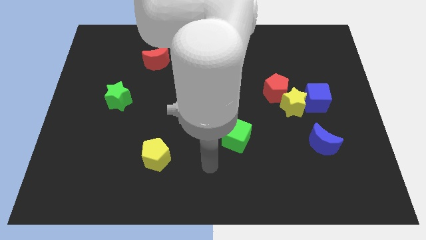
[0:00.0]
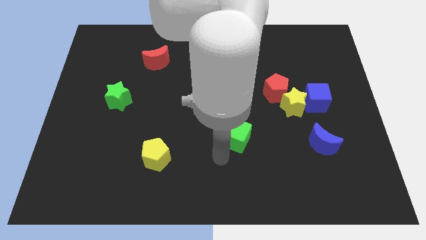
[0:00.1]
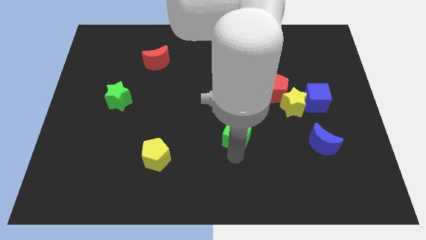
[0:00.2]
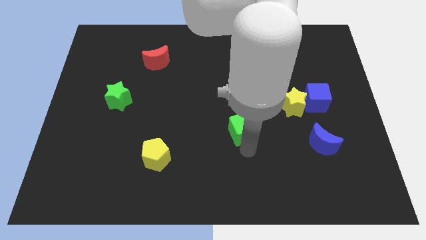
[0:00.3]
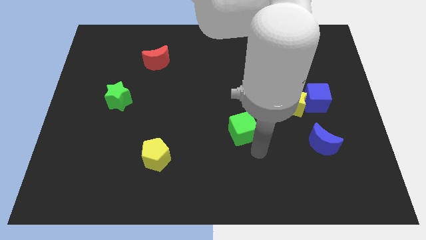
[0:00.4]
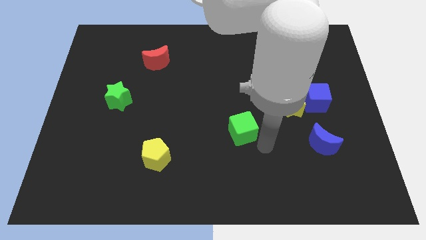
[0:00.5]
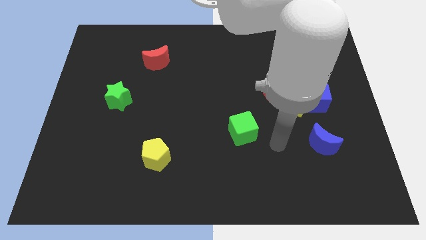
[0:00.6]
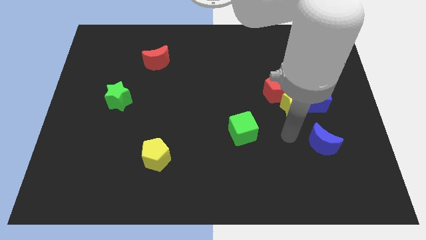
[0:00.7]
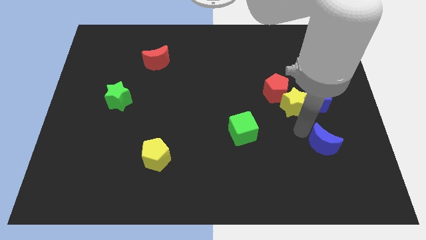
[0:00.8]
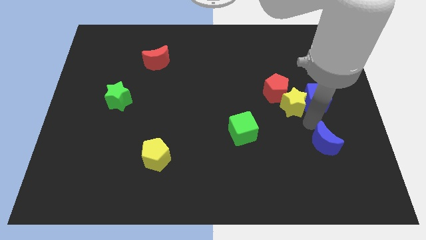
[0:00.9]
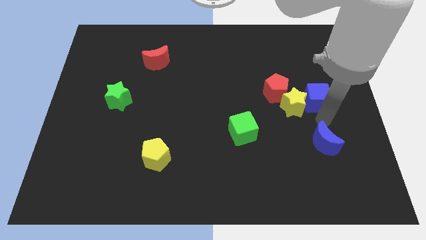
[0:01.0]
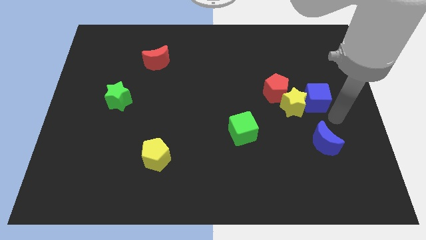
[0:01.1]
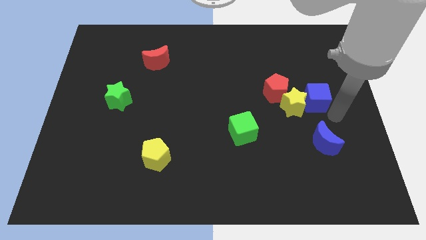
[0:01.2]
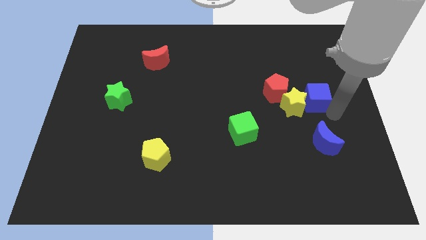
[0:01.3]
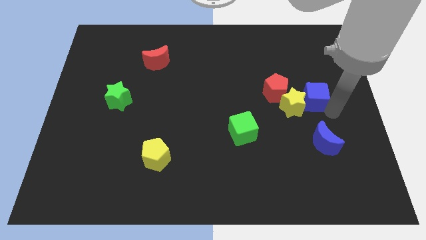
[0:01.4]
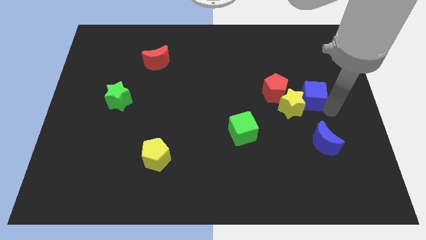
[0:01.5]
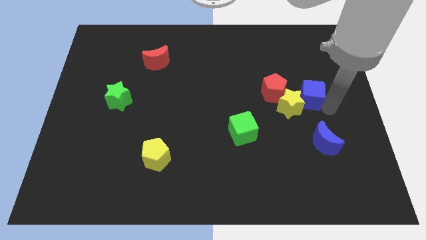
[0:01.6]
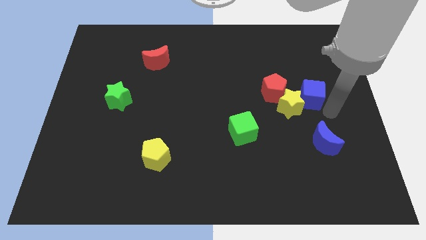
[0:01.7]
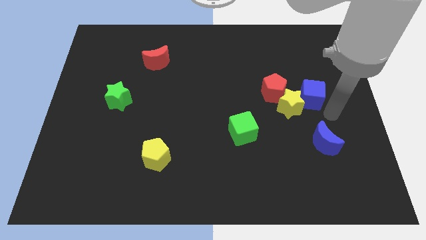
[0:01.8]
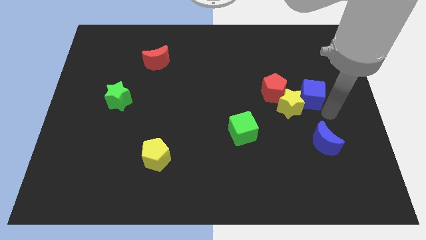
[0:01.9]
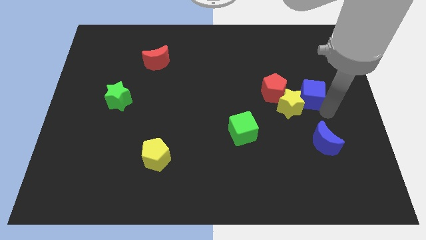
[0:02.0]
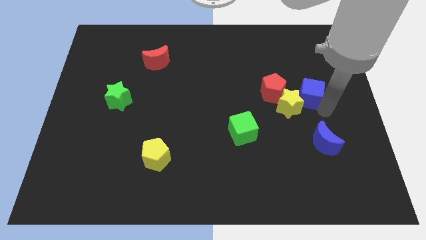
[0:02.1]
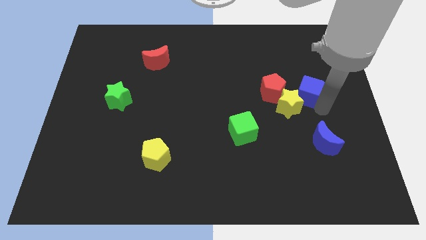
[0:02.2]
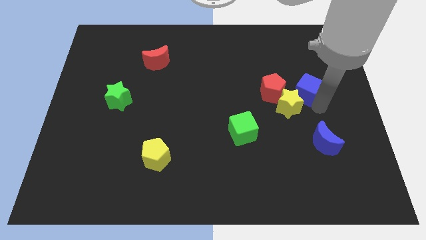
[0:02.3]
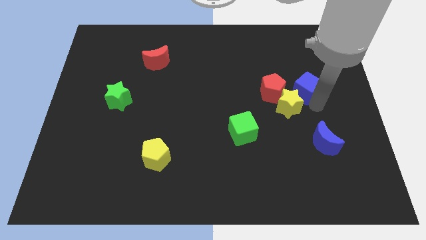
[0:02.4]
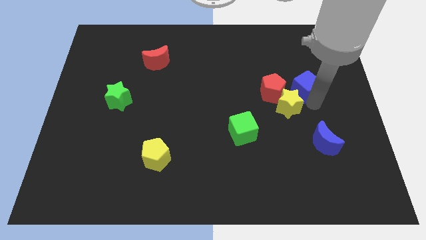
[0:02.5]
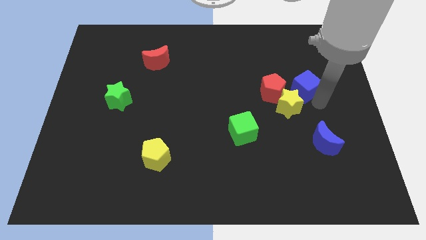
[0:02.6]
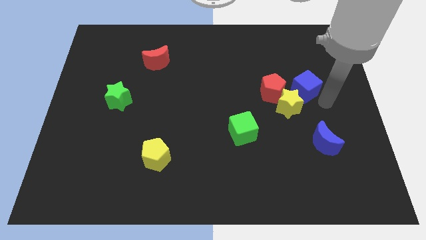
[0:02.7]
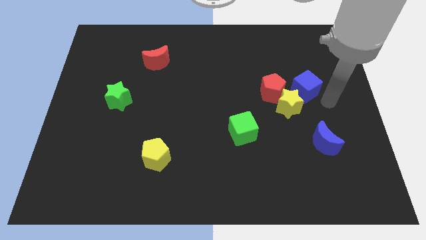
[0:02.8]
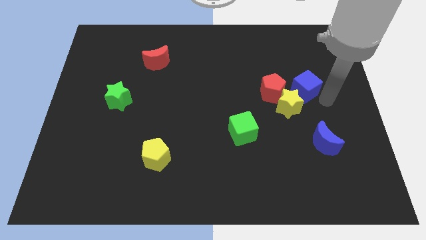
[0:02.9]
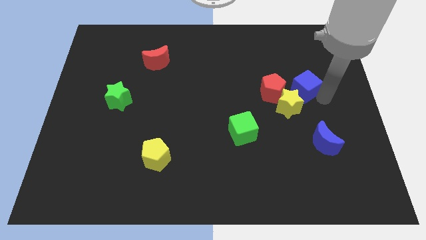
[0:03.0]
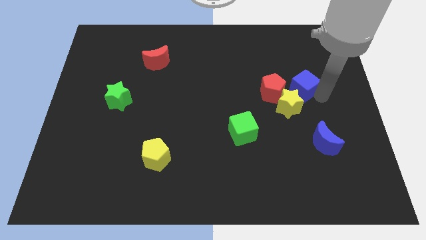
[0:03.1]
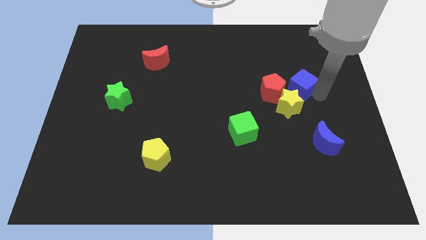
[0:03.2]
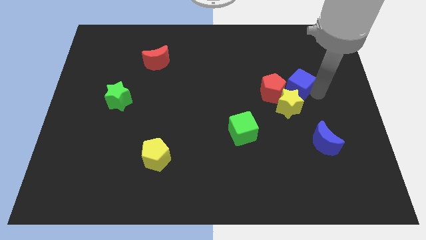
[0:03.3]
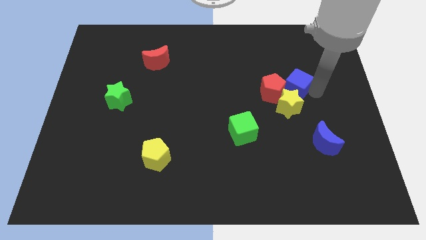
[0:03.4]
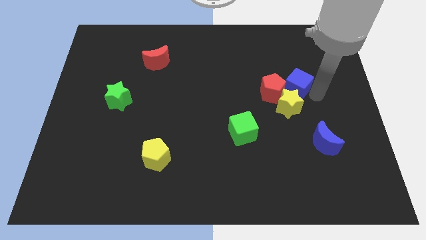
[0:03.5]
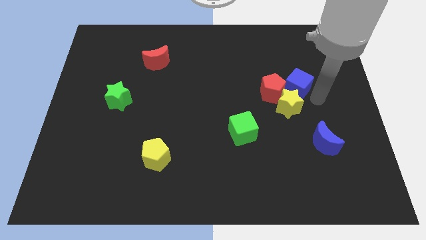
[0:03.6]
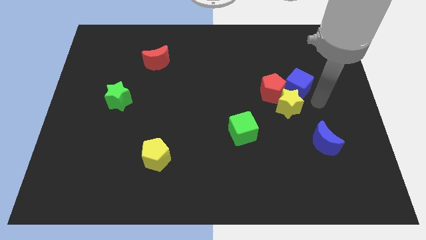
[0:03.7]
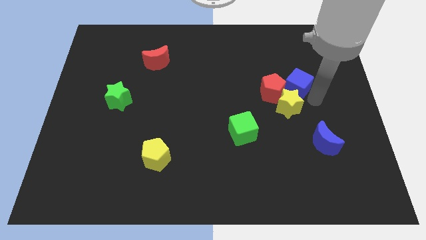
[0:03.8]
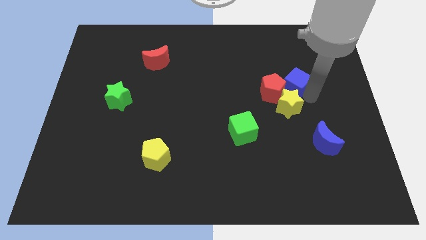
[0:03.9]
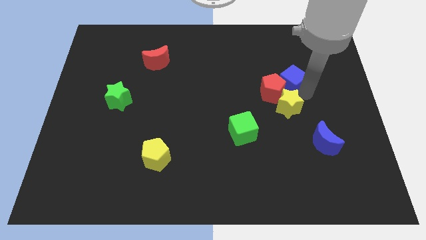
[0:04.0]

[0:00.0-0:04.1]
push the blue cube upwards and left diagonally a bit

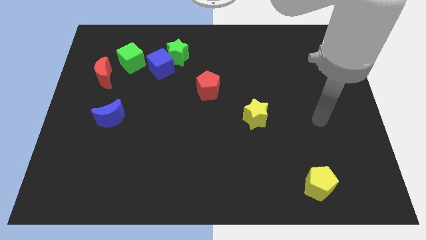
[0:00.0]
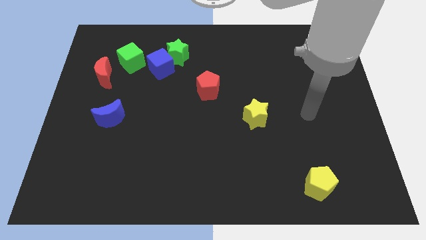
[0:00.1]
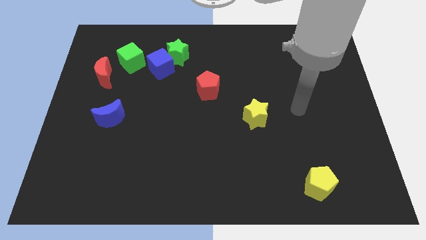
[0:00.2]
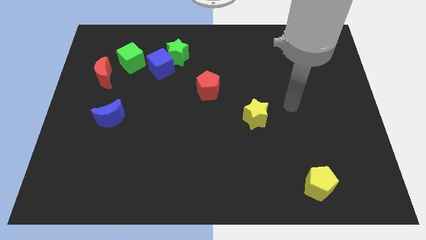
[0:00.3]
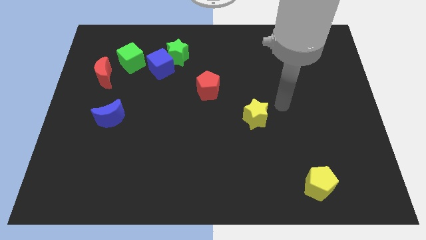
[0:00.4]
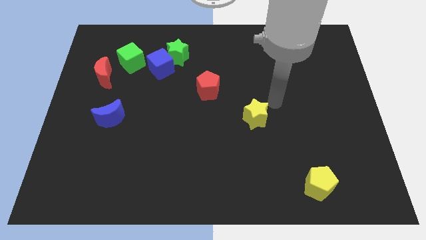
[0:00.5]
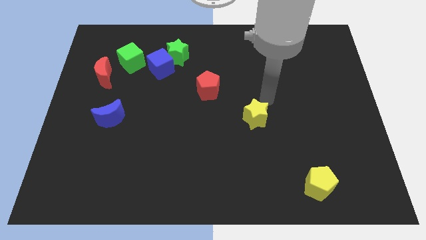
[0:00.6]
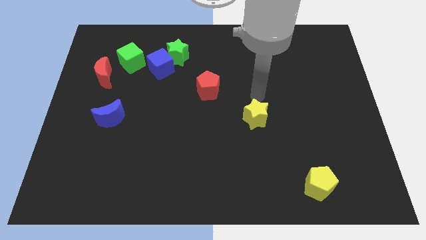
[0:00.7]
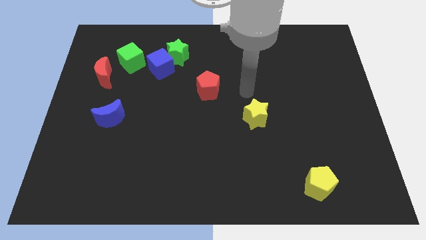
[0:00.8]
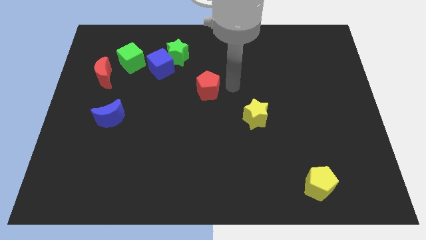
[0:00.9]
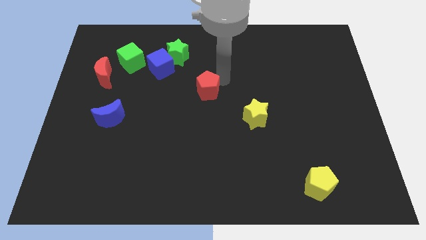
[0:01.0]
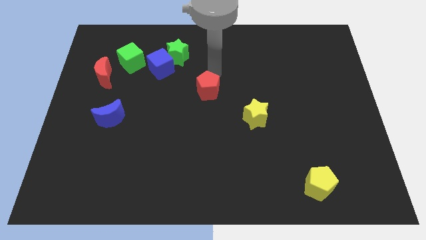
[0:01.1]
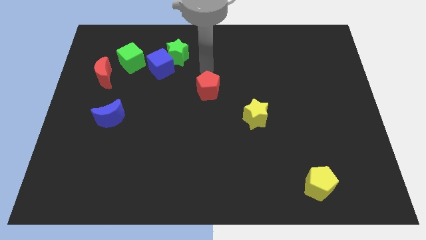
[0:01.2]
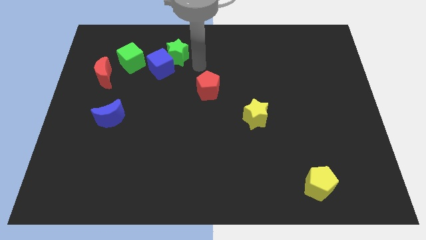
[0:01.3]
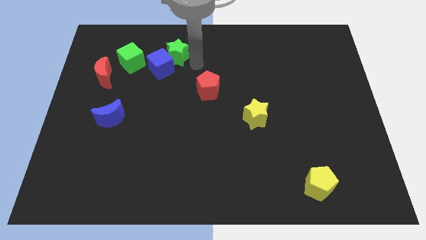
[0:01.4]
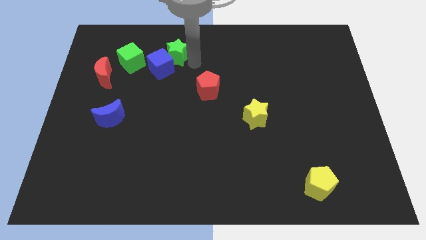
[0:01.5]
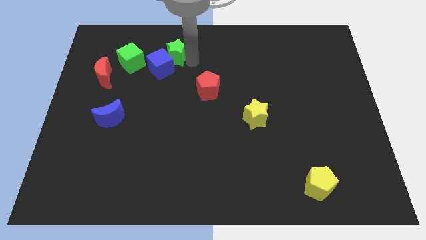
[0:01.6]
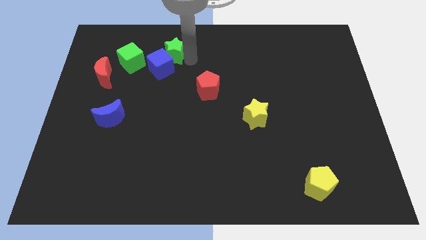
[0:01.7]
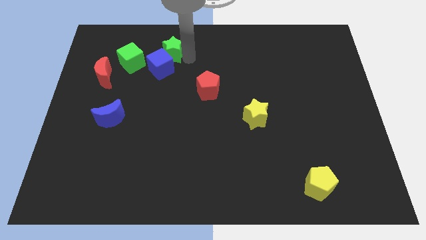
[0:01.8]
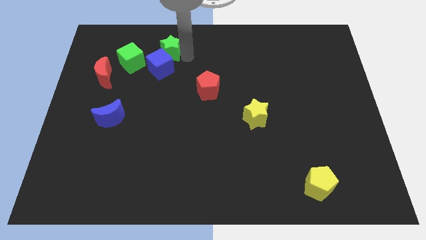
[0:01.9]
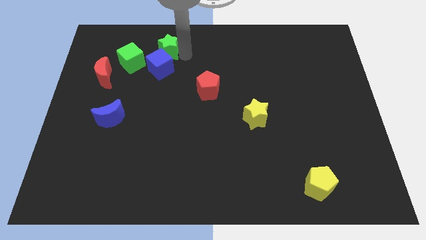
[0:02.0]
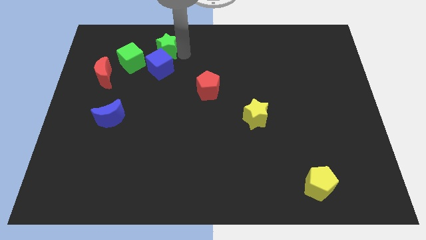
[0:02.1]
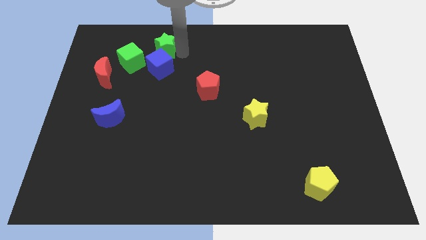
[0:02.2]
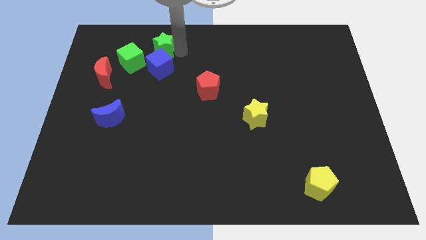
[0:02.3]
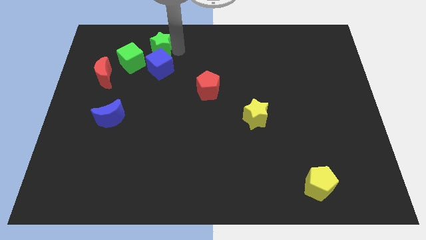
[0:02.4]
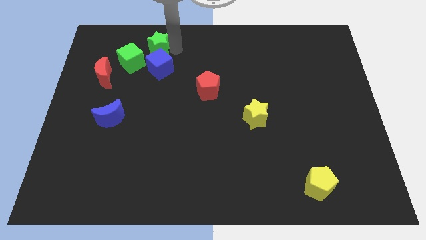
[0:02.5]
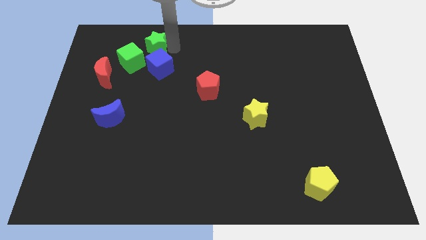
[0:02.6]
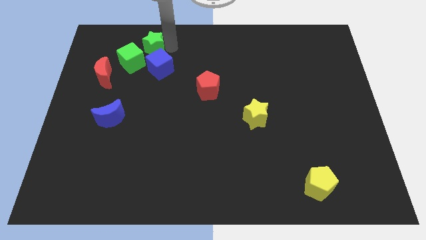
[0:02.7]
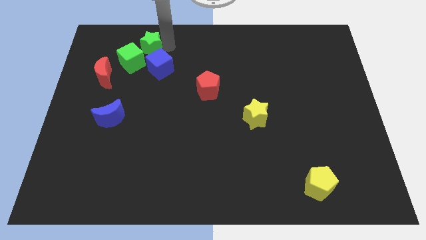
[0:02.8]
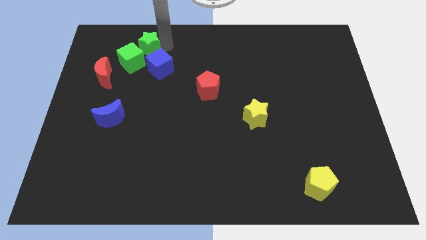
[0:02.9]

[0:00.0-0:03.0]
move the green star a little bit to the left

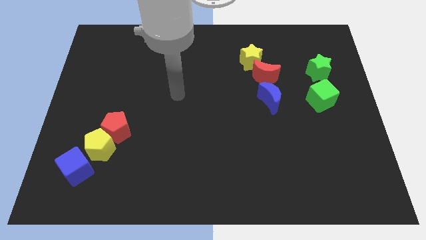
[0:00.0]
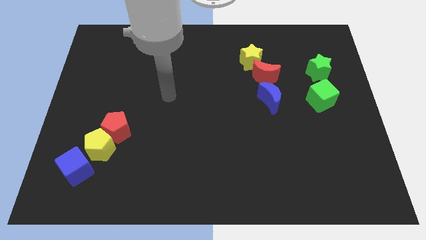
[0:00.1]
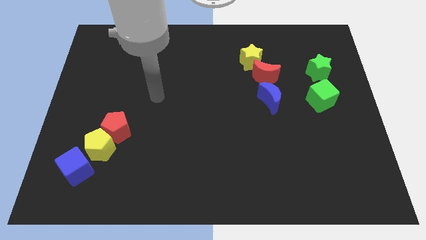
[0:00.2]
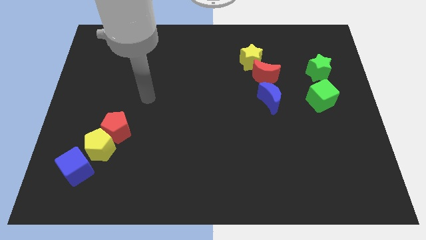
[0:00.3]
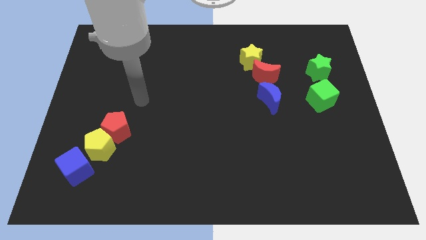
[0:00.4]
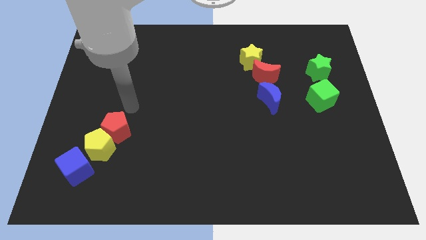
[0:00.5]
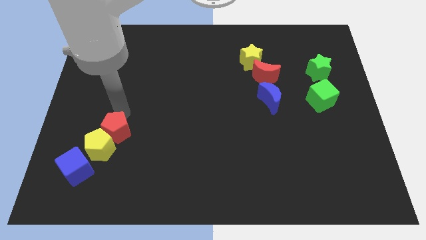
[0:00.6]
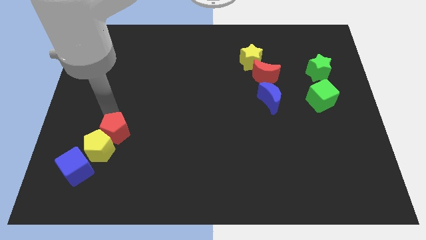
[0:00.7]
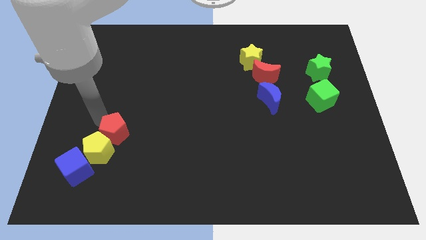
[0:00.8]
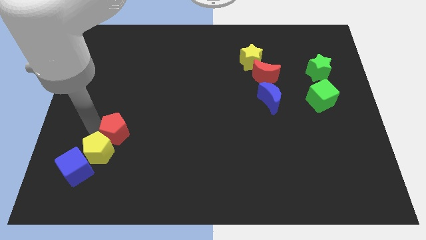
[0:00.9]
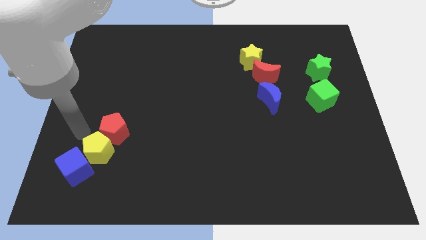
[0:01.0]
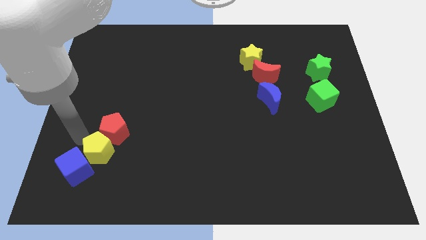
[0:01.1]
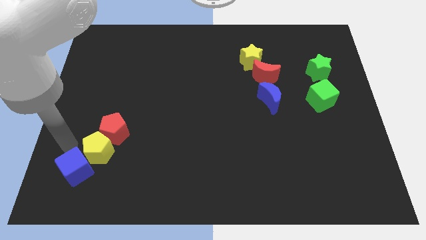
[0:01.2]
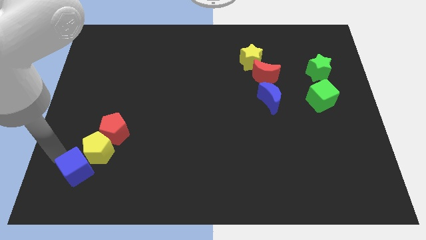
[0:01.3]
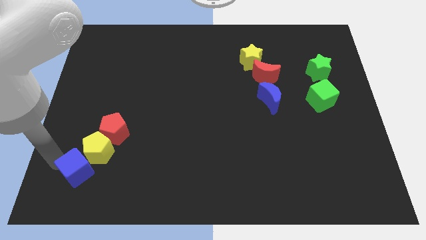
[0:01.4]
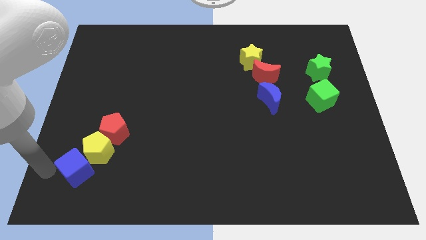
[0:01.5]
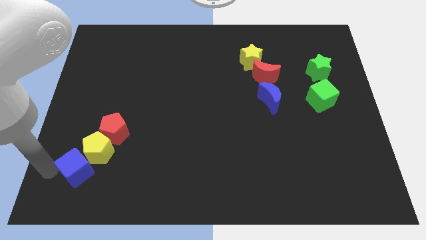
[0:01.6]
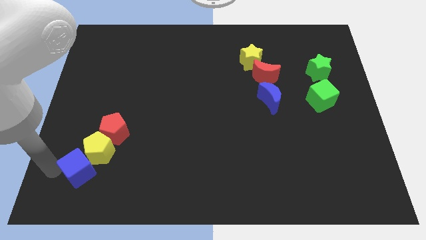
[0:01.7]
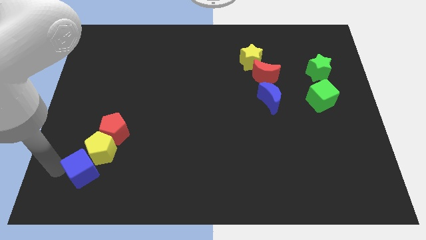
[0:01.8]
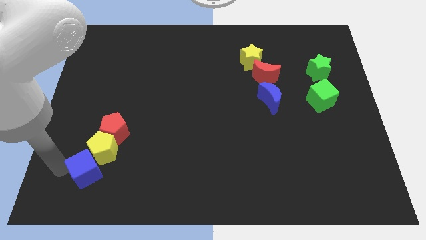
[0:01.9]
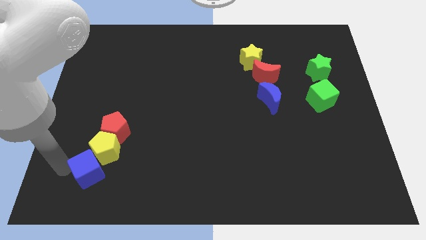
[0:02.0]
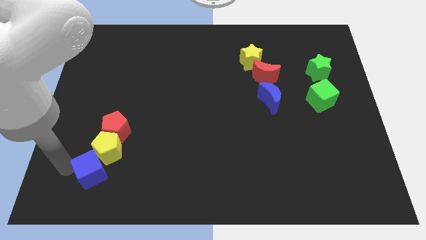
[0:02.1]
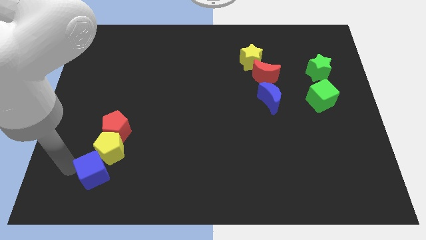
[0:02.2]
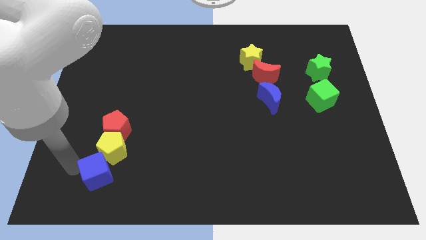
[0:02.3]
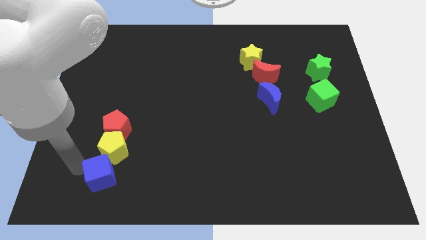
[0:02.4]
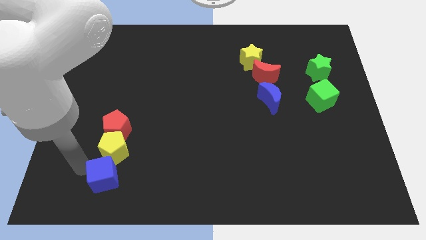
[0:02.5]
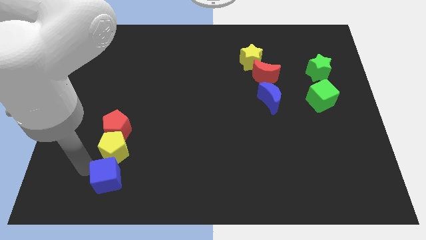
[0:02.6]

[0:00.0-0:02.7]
push the blue cube right a little
